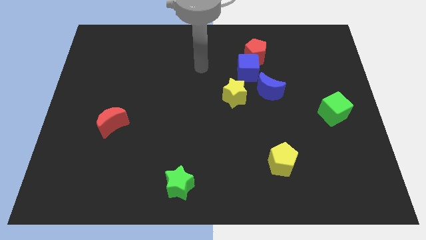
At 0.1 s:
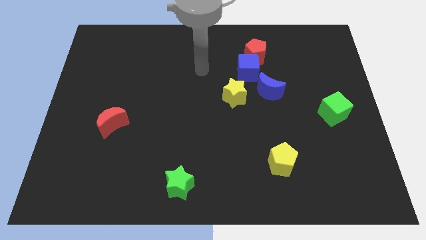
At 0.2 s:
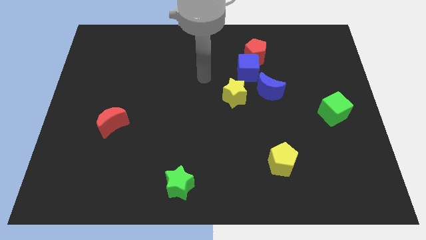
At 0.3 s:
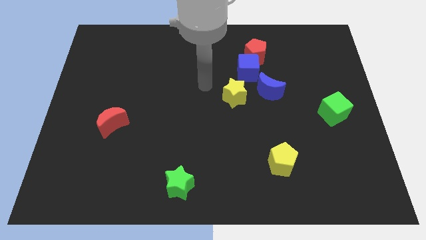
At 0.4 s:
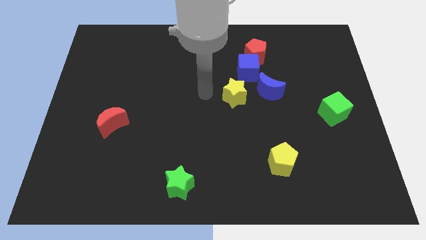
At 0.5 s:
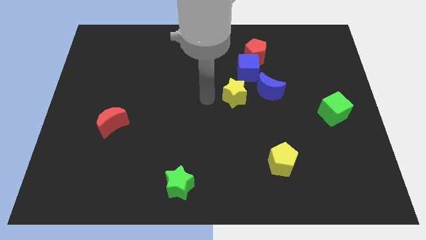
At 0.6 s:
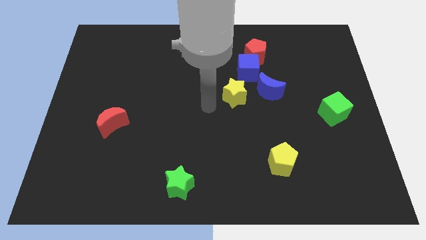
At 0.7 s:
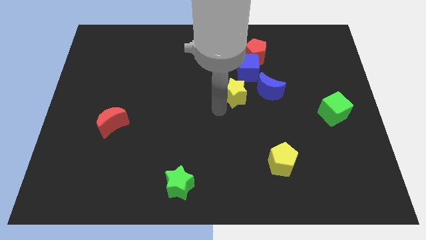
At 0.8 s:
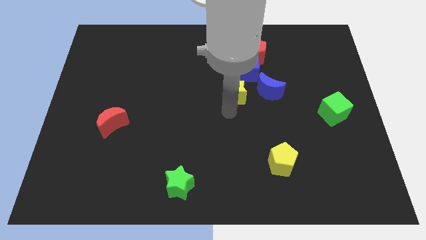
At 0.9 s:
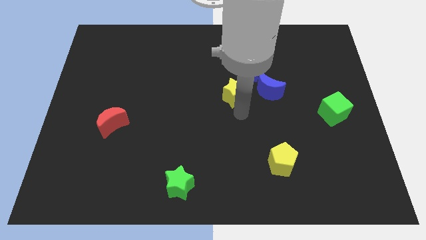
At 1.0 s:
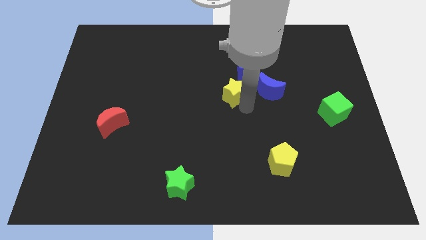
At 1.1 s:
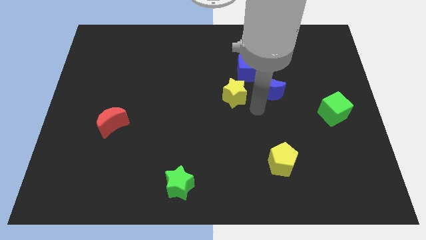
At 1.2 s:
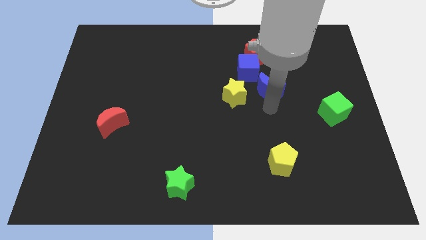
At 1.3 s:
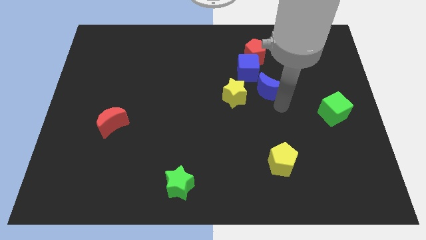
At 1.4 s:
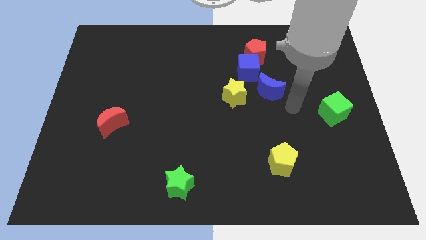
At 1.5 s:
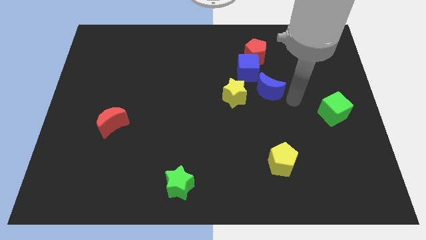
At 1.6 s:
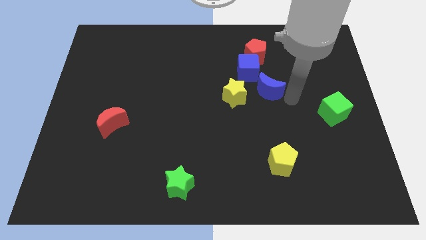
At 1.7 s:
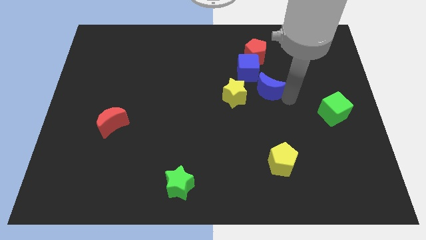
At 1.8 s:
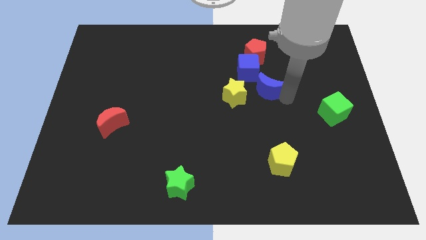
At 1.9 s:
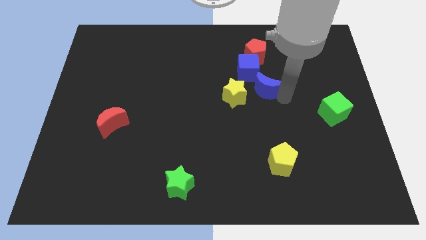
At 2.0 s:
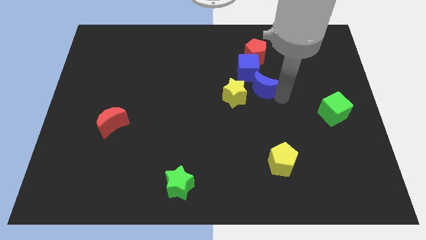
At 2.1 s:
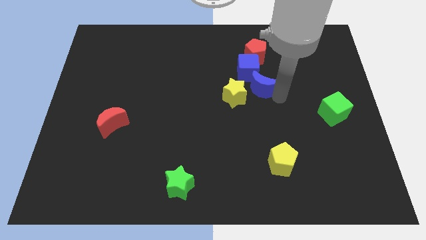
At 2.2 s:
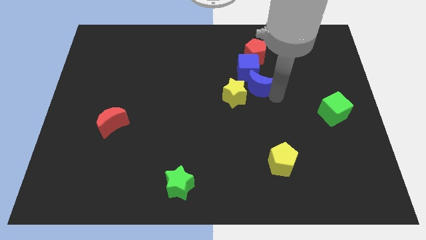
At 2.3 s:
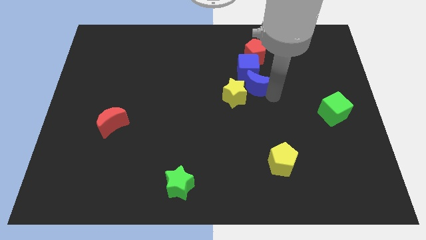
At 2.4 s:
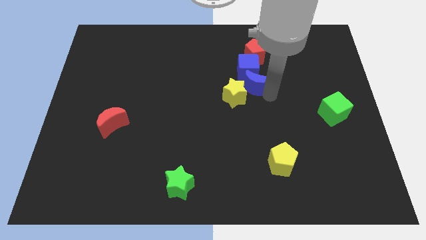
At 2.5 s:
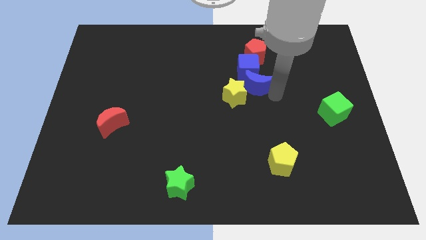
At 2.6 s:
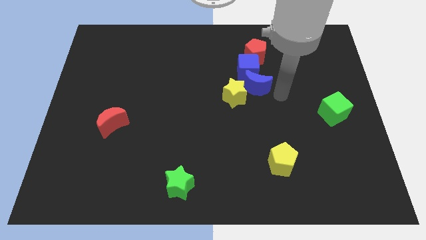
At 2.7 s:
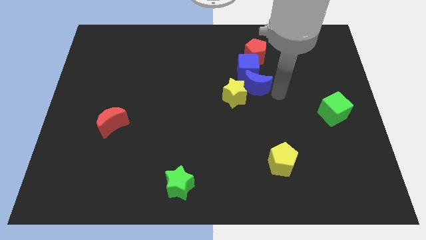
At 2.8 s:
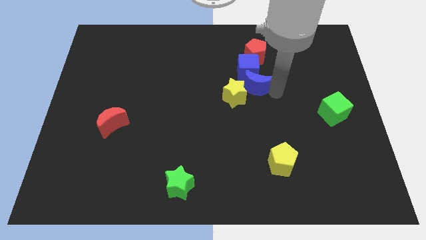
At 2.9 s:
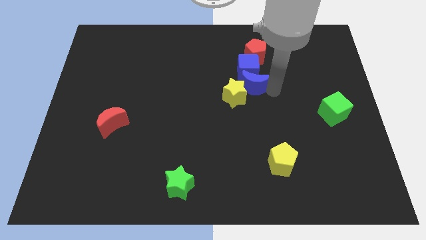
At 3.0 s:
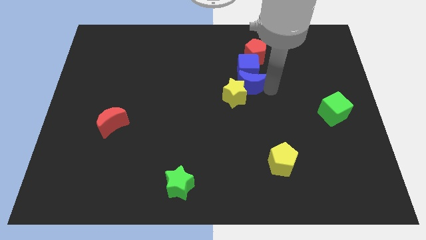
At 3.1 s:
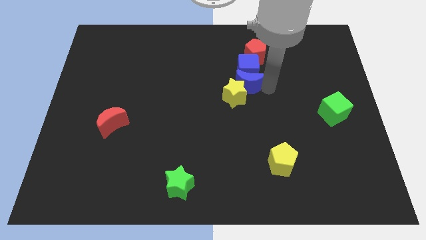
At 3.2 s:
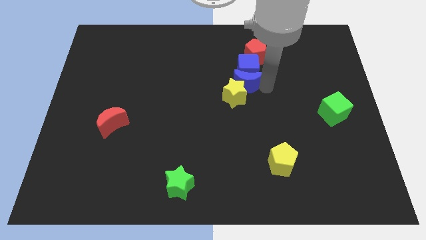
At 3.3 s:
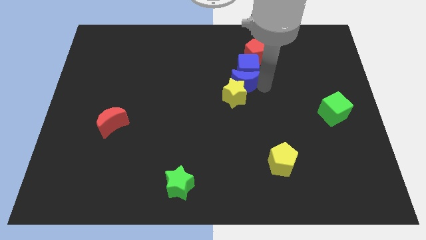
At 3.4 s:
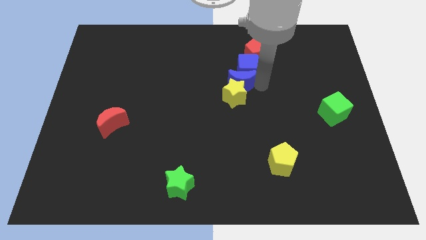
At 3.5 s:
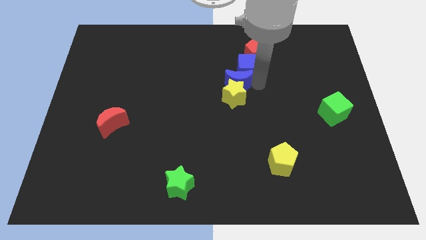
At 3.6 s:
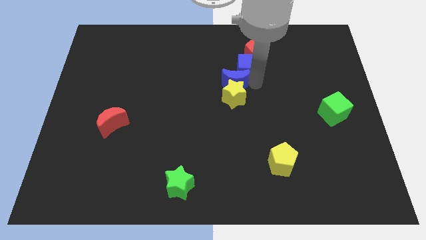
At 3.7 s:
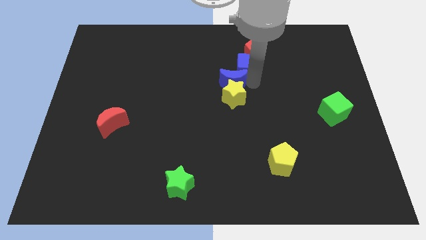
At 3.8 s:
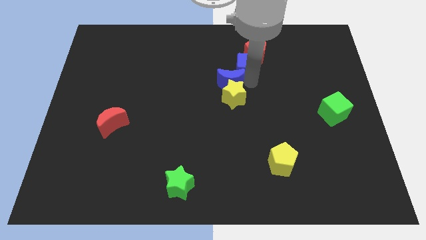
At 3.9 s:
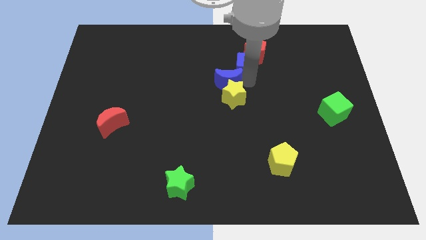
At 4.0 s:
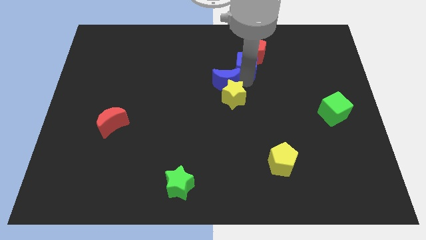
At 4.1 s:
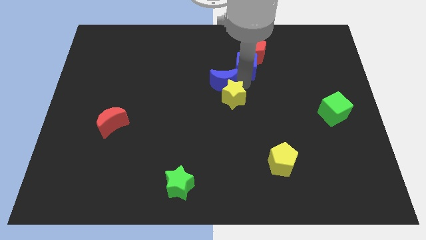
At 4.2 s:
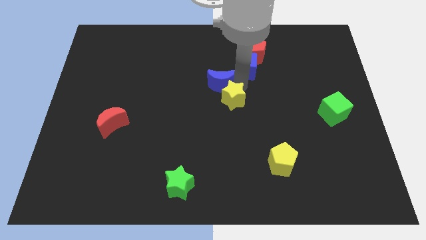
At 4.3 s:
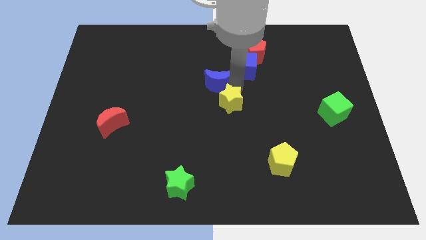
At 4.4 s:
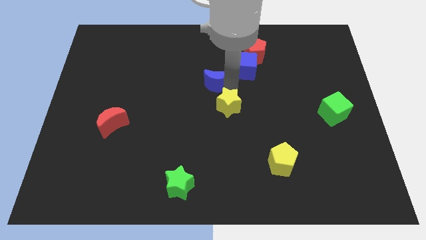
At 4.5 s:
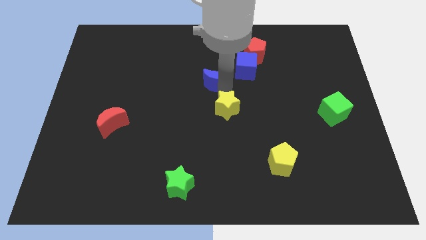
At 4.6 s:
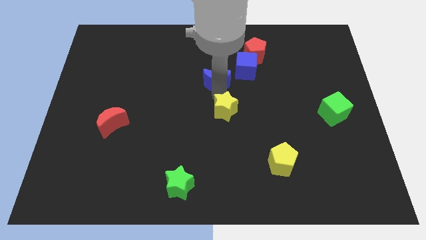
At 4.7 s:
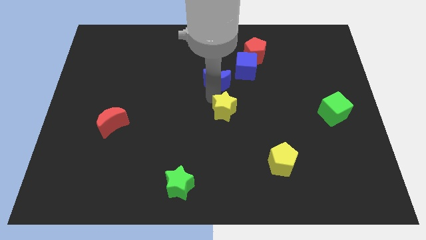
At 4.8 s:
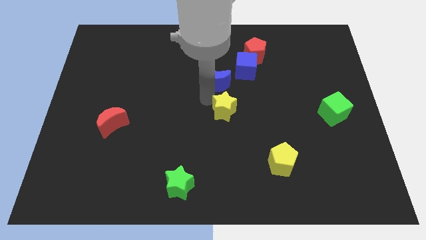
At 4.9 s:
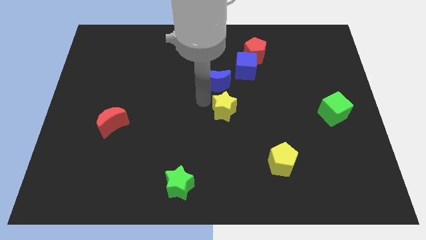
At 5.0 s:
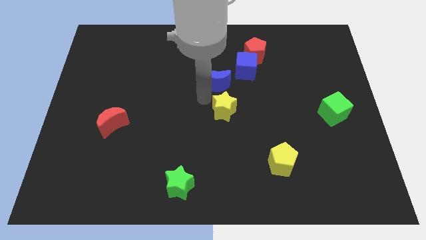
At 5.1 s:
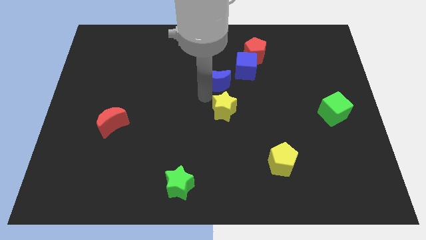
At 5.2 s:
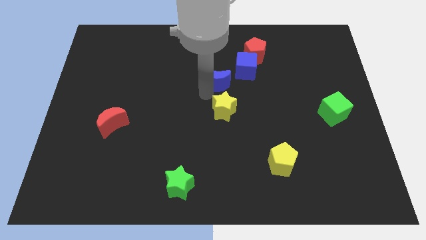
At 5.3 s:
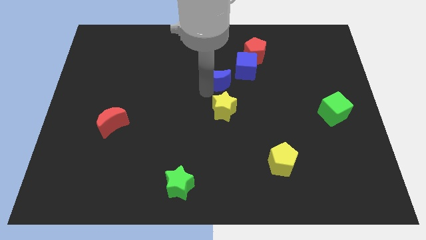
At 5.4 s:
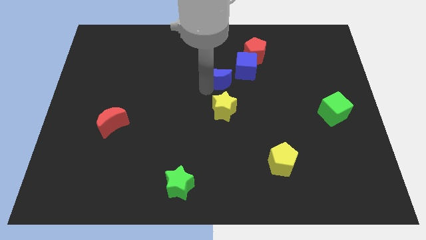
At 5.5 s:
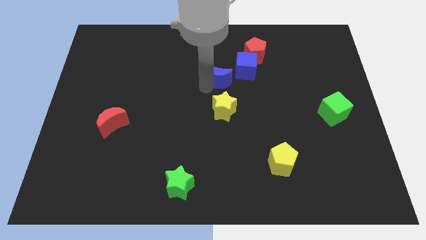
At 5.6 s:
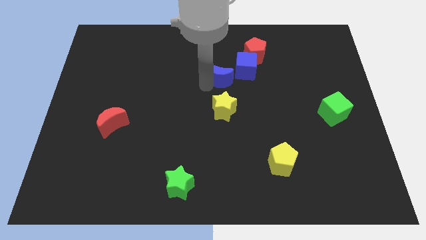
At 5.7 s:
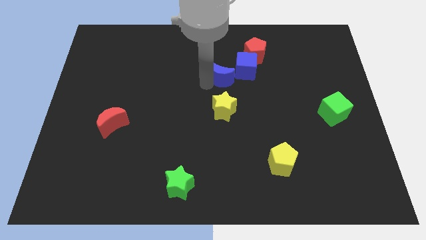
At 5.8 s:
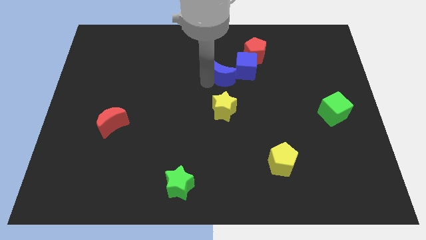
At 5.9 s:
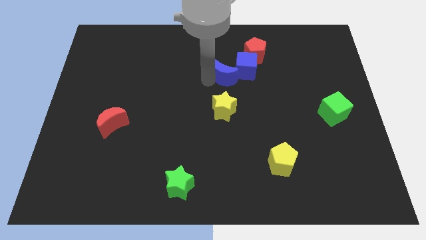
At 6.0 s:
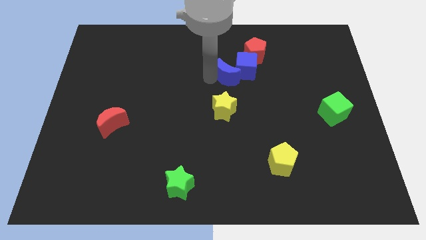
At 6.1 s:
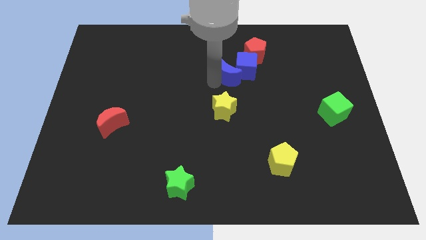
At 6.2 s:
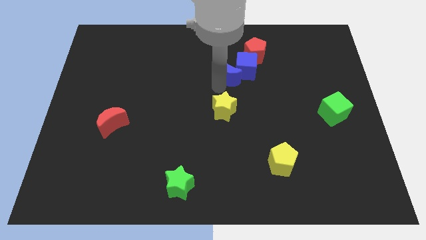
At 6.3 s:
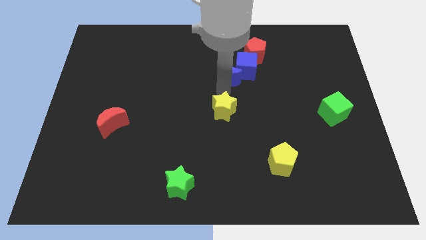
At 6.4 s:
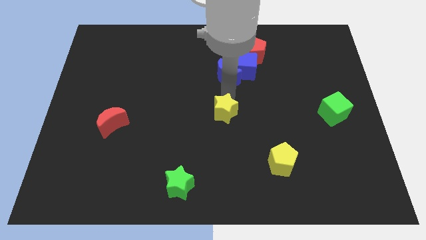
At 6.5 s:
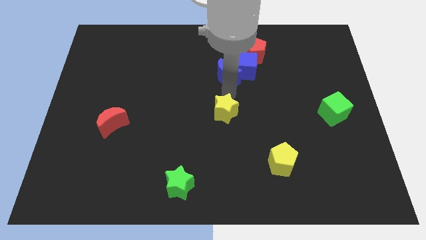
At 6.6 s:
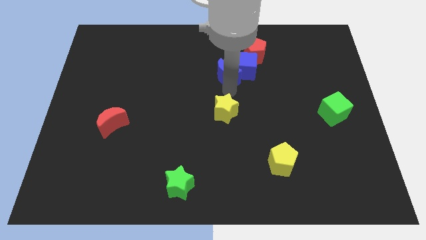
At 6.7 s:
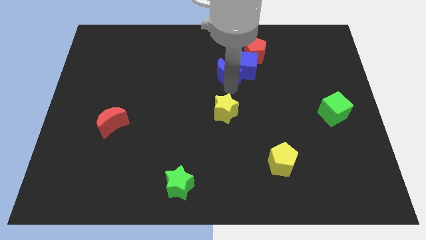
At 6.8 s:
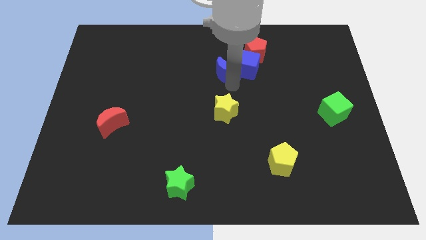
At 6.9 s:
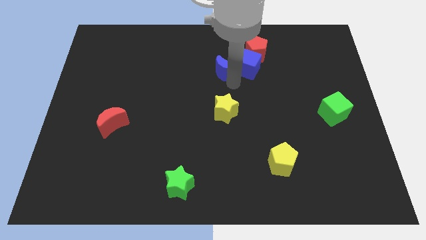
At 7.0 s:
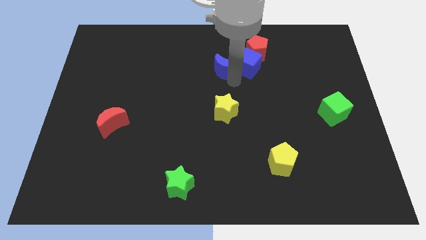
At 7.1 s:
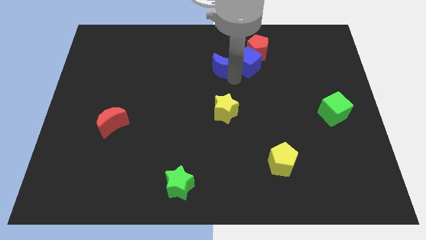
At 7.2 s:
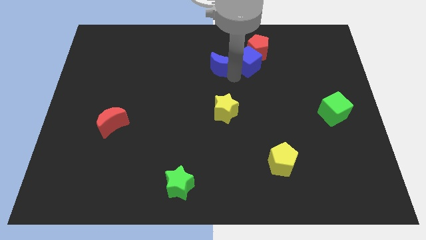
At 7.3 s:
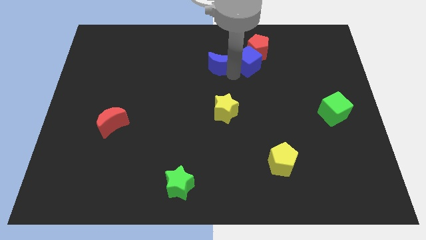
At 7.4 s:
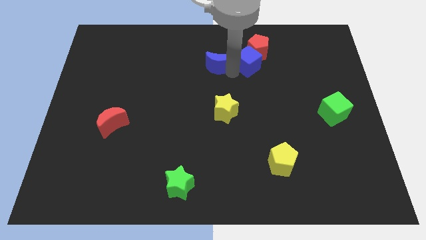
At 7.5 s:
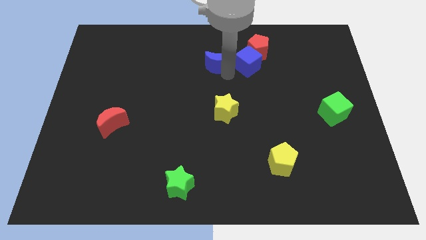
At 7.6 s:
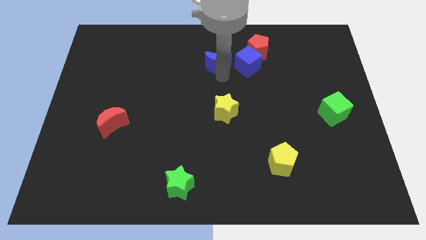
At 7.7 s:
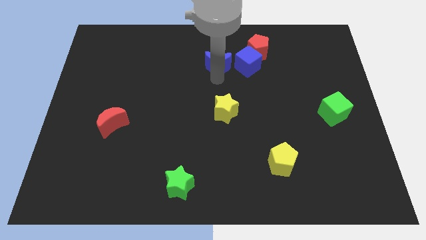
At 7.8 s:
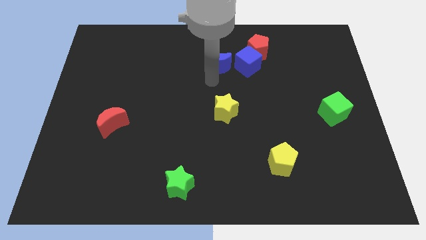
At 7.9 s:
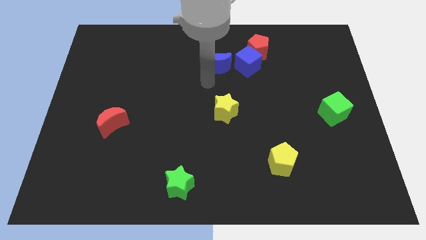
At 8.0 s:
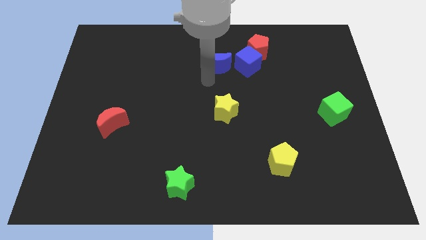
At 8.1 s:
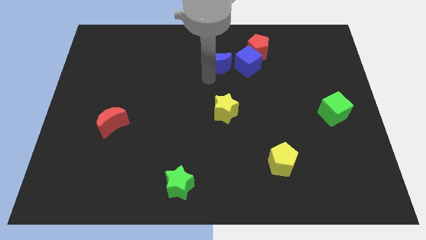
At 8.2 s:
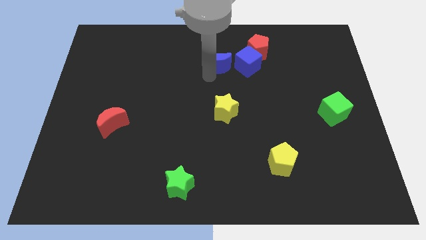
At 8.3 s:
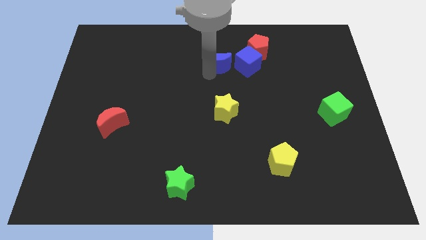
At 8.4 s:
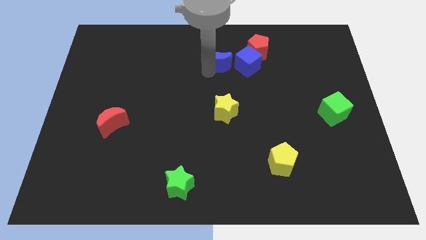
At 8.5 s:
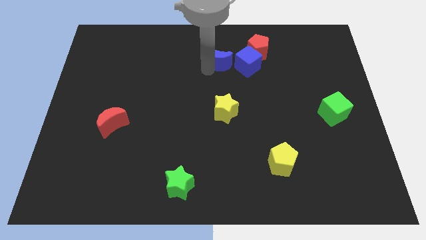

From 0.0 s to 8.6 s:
slide the blue moon to the top left of the blue cube
